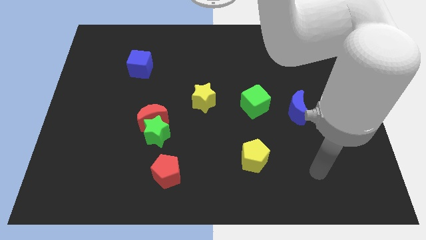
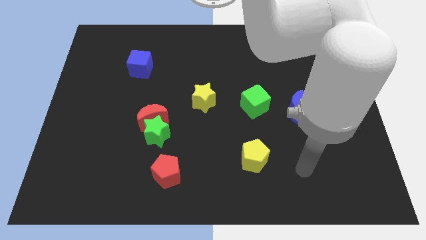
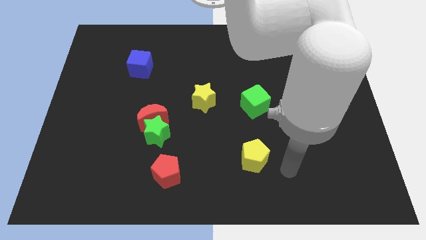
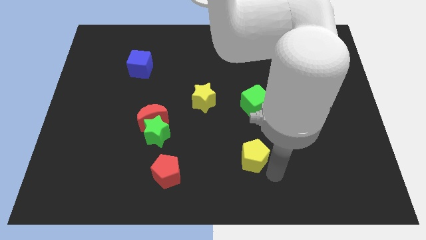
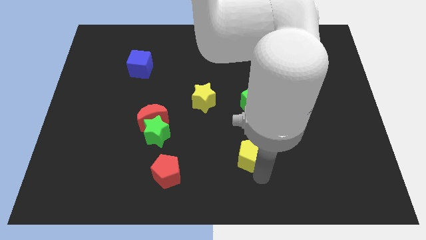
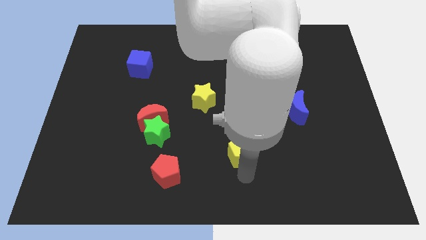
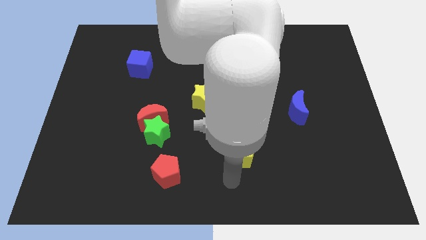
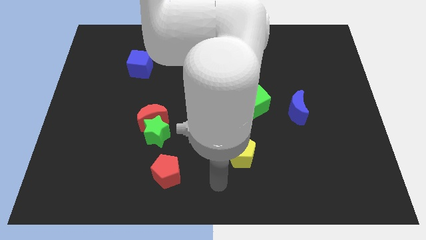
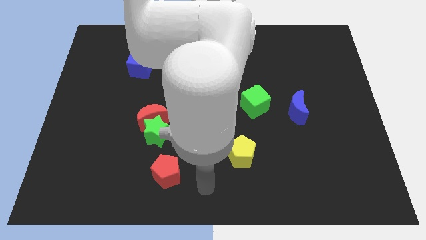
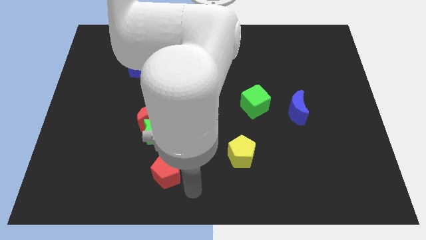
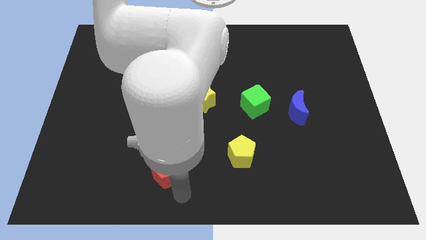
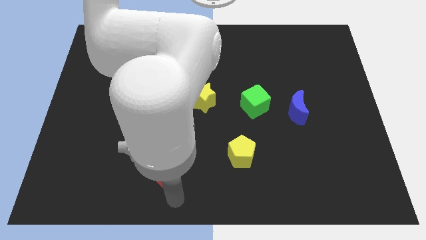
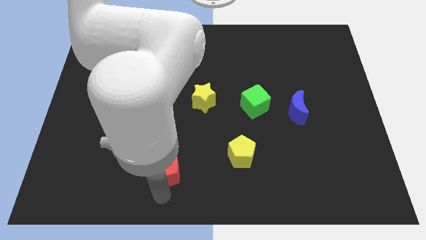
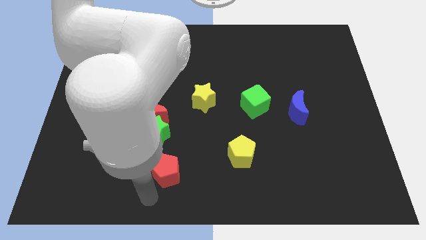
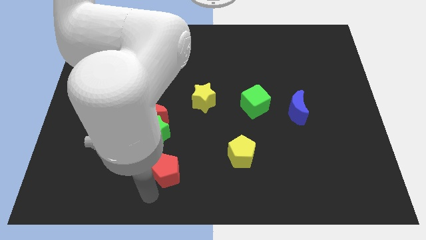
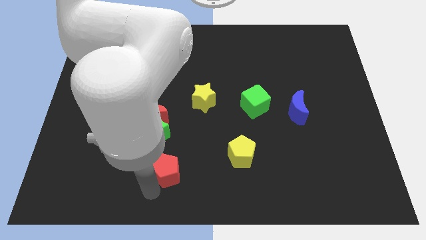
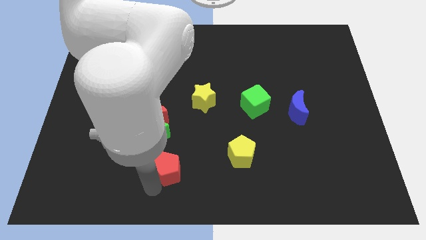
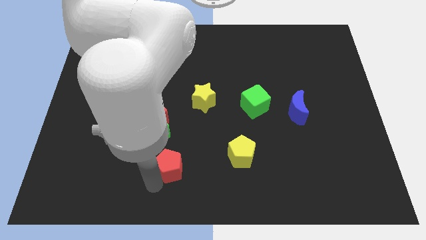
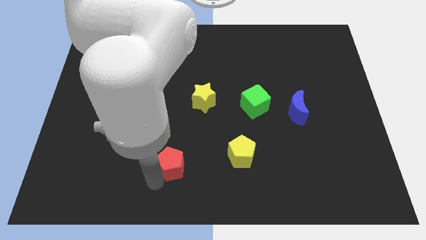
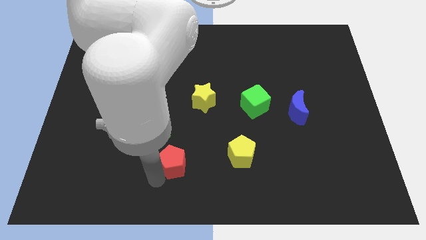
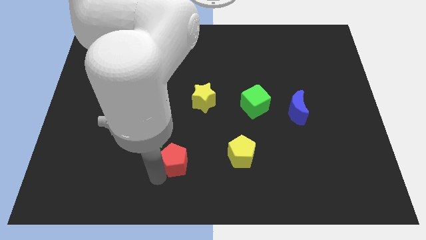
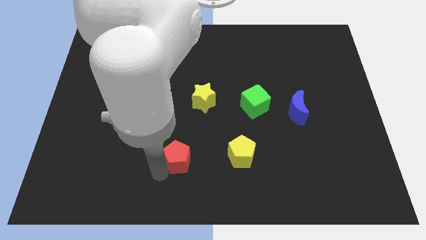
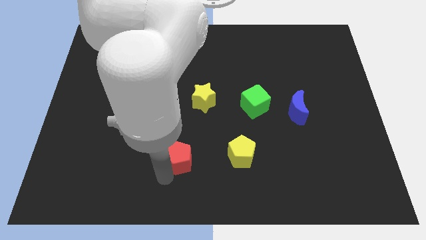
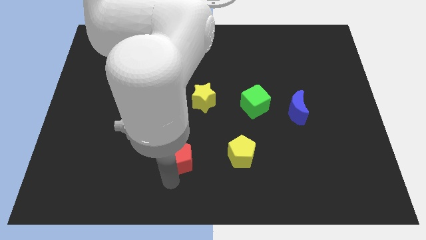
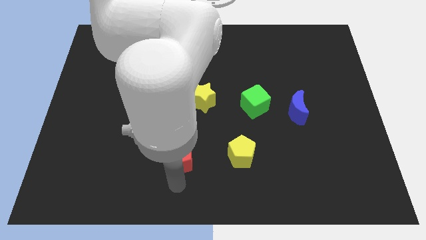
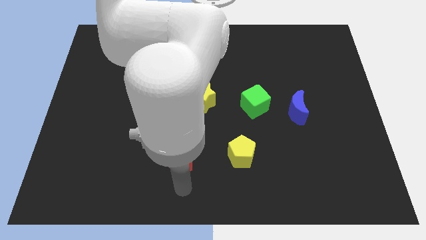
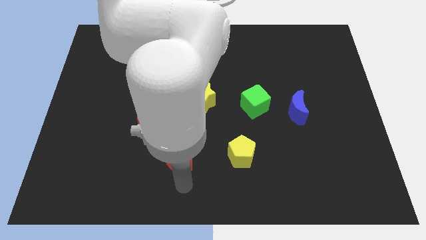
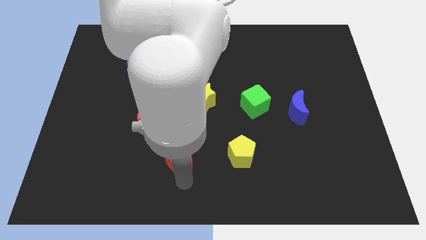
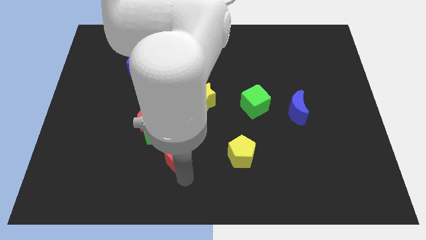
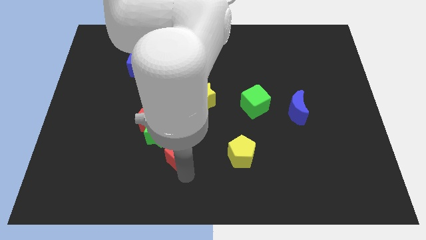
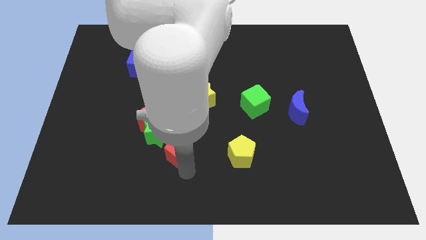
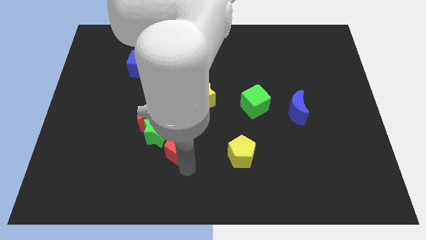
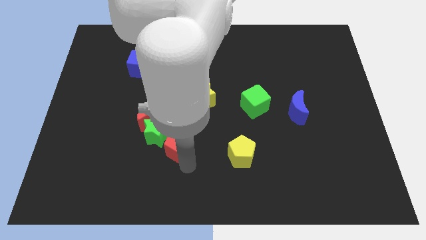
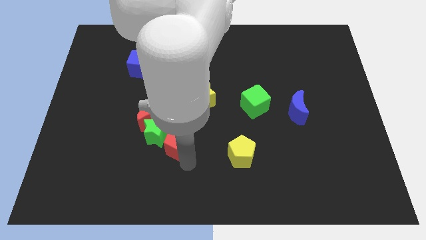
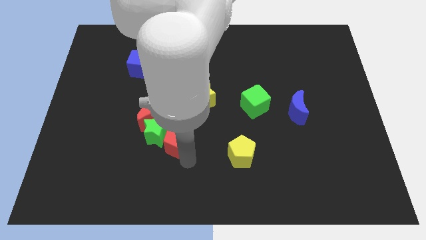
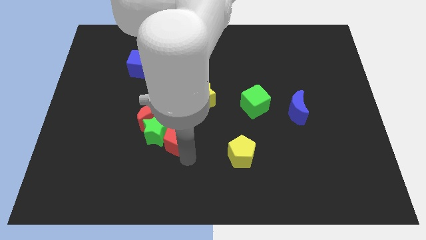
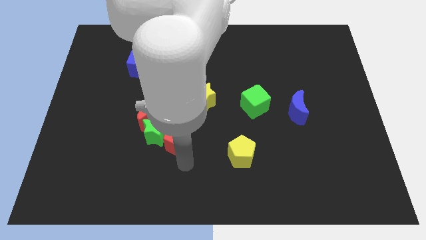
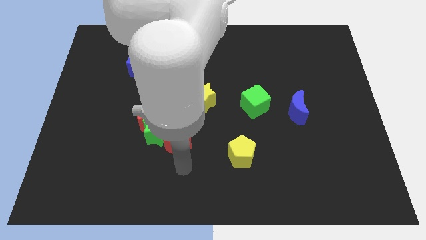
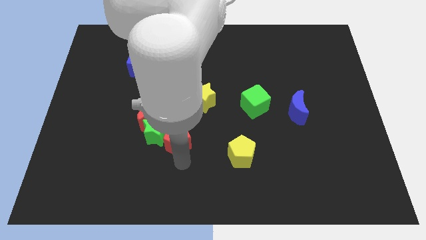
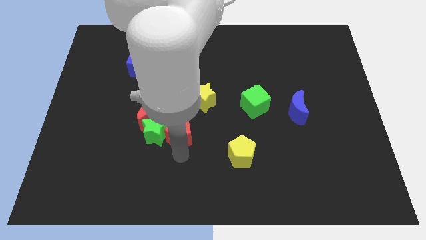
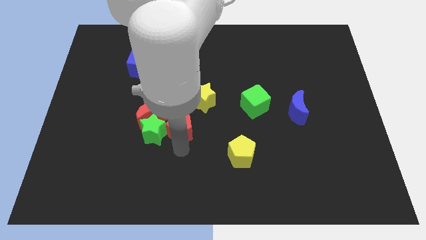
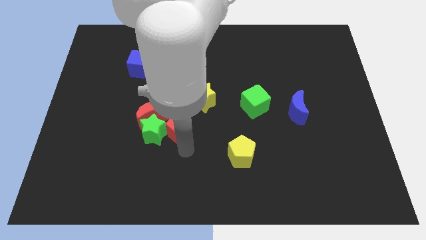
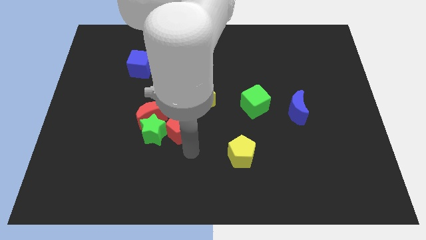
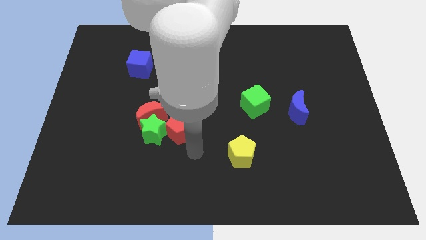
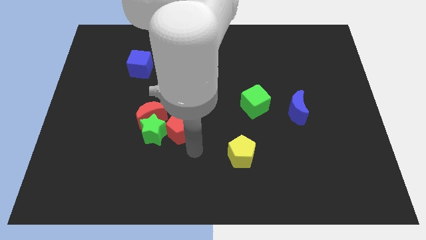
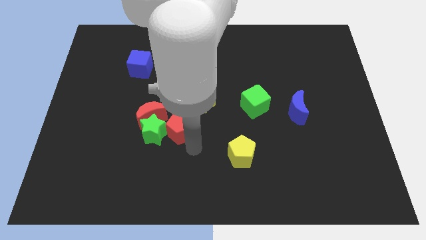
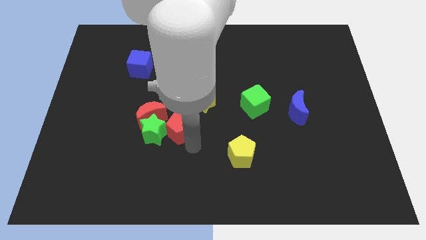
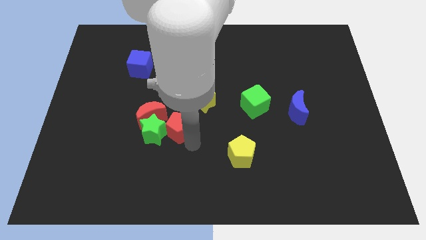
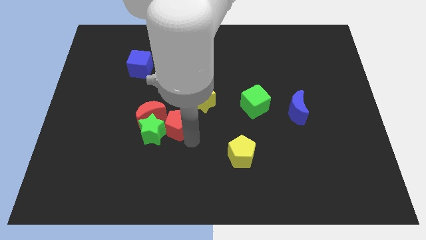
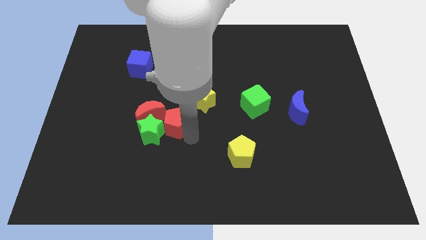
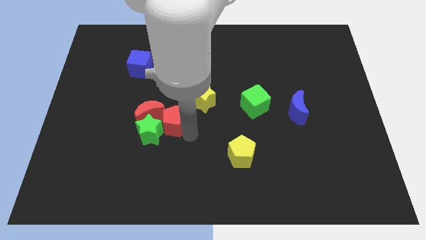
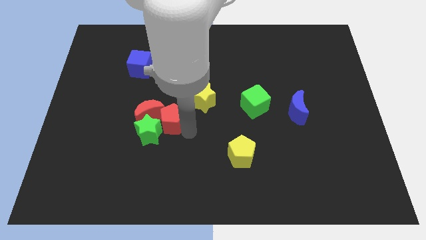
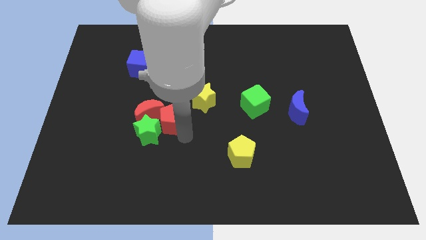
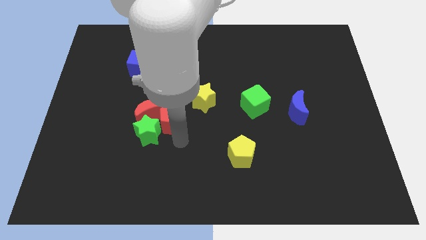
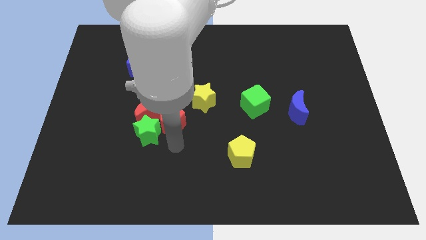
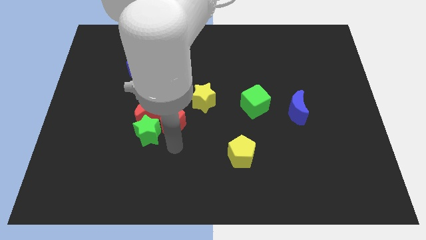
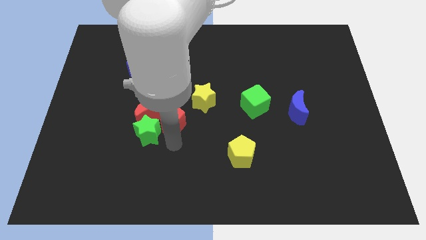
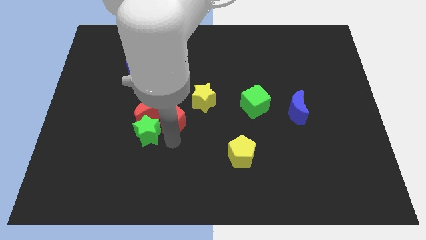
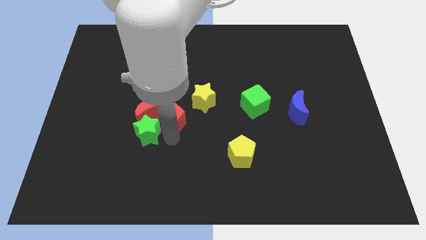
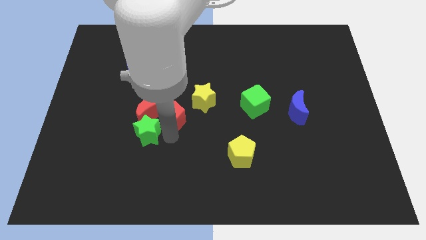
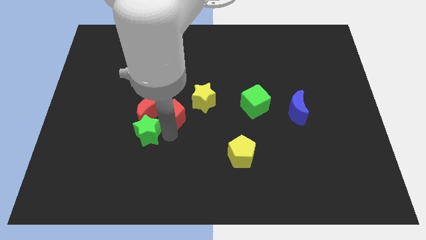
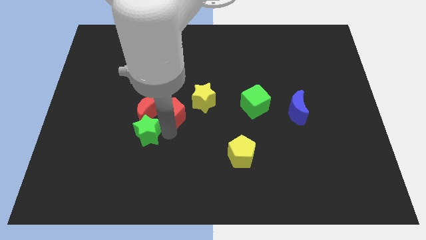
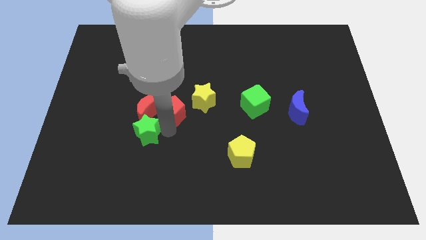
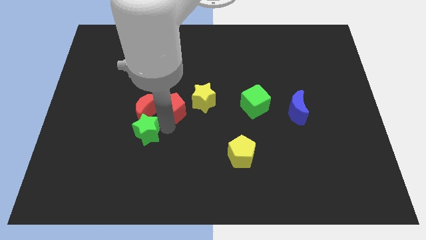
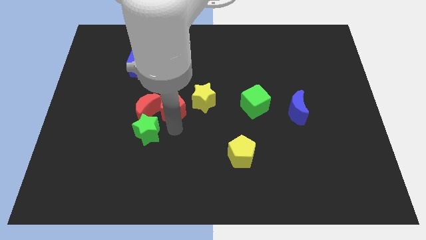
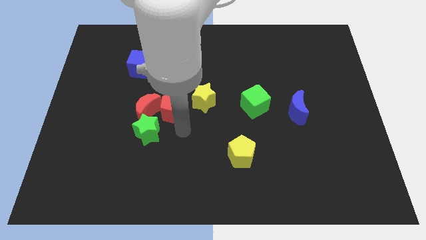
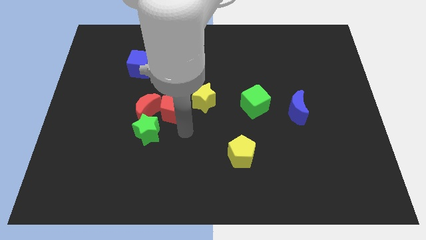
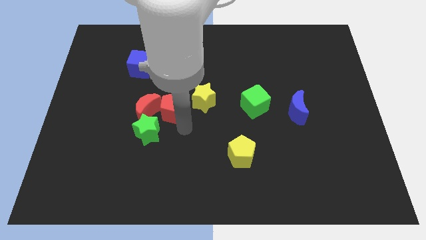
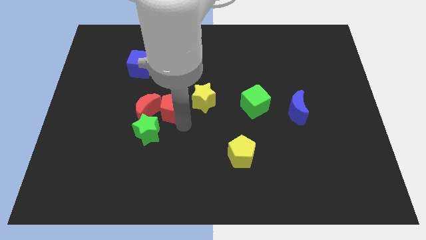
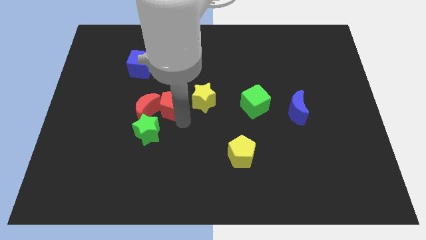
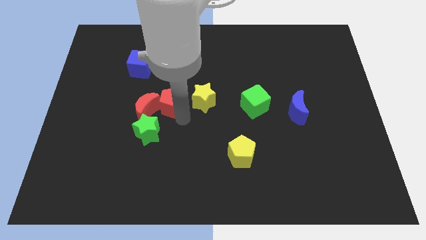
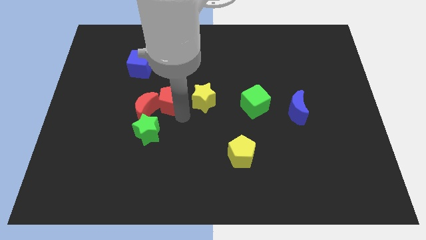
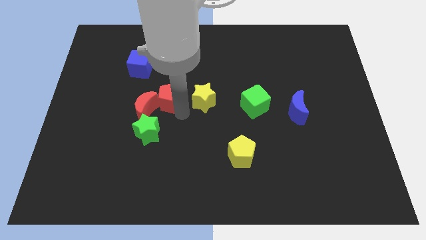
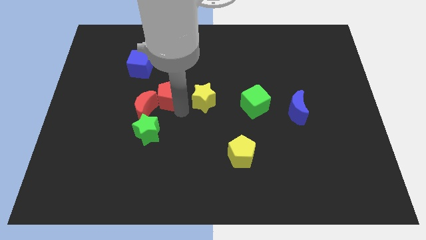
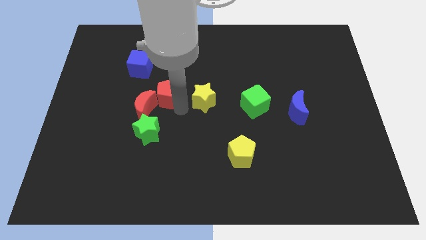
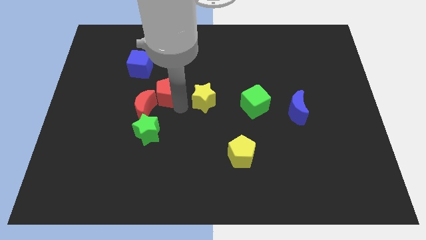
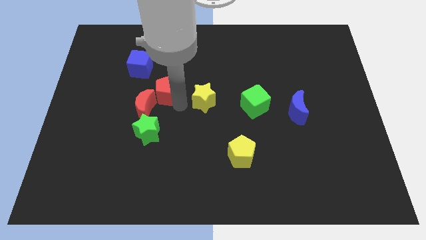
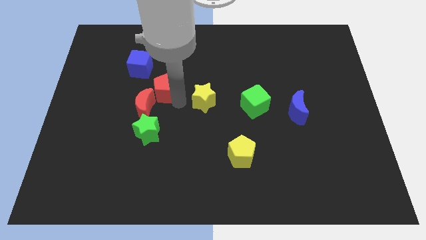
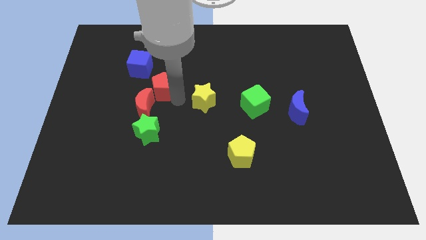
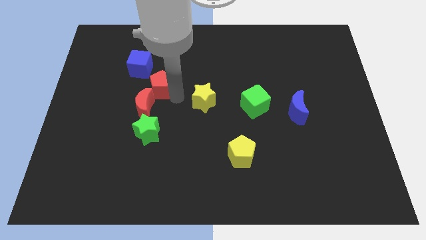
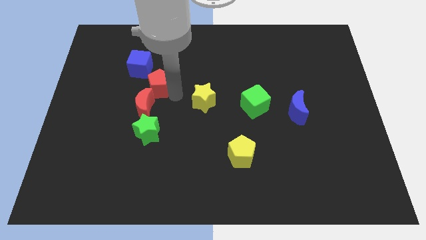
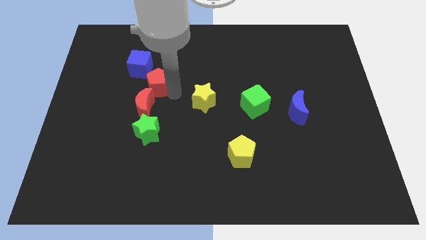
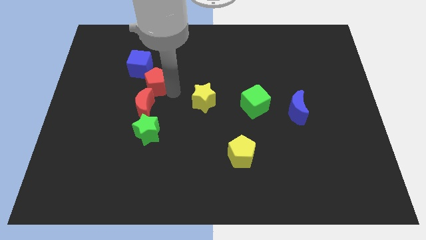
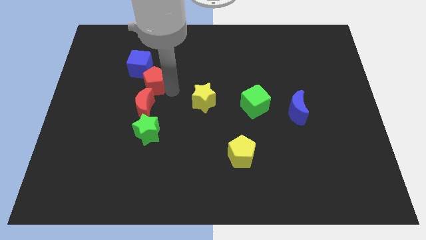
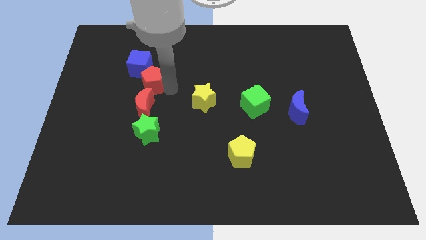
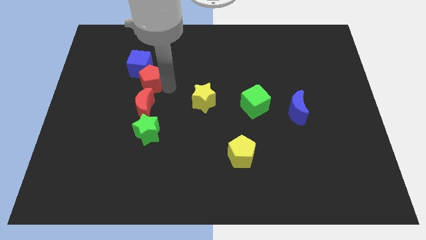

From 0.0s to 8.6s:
push the red pentagon towards the blue cube
